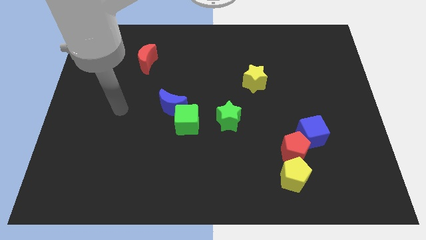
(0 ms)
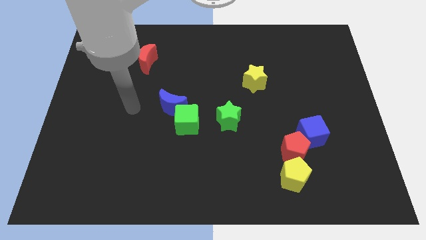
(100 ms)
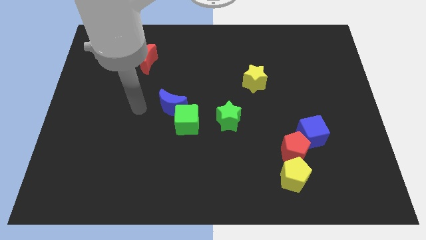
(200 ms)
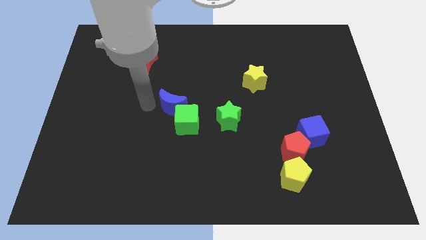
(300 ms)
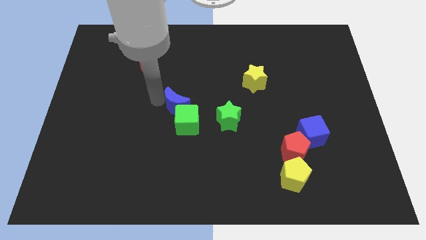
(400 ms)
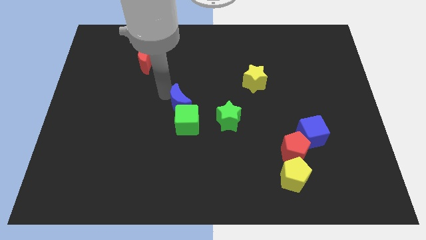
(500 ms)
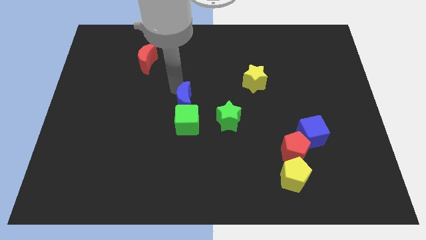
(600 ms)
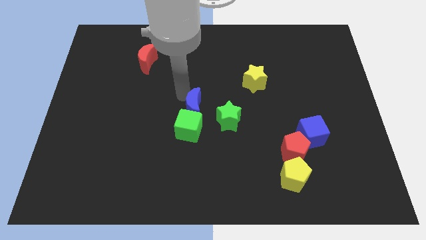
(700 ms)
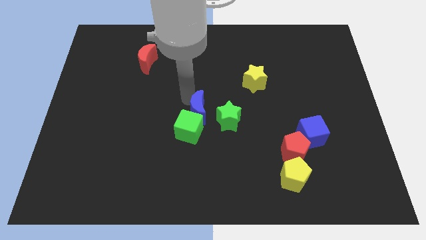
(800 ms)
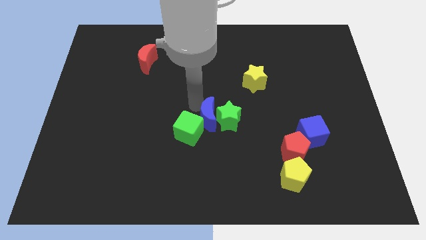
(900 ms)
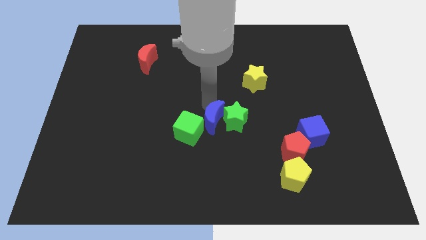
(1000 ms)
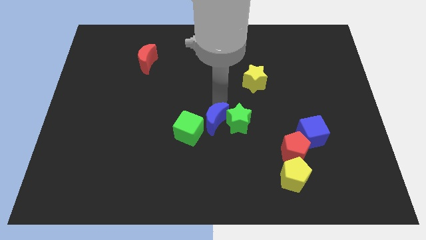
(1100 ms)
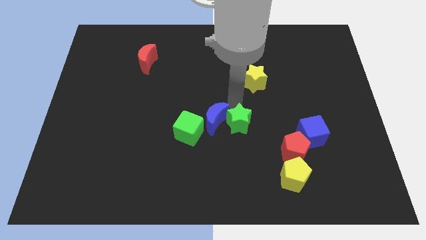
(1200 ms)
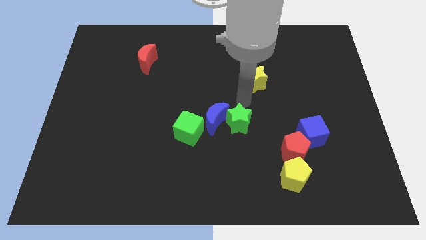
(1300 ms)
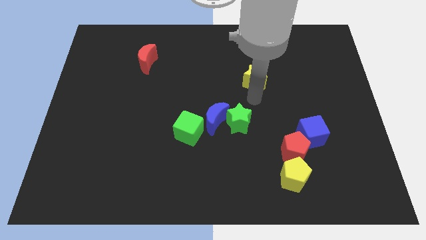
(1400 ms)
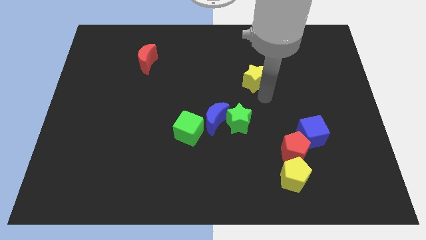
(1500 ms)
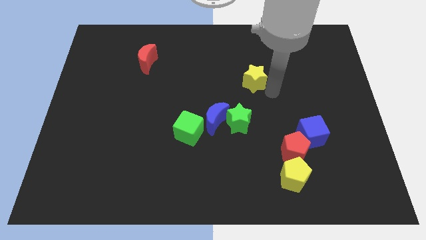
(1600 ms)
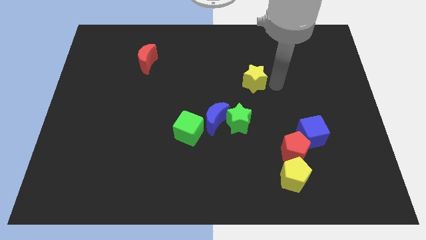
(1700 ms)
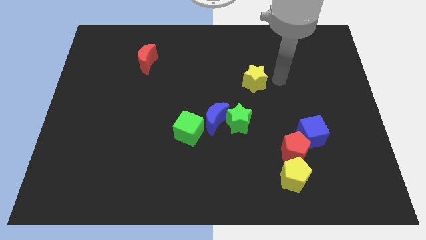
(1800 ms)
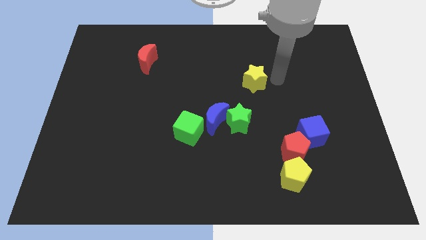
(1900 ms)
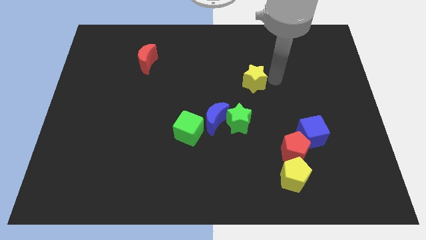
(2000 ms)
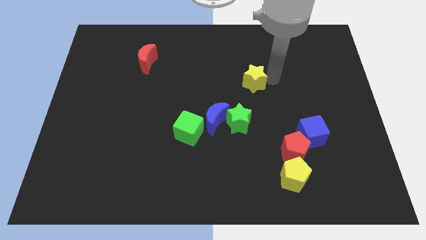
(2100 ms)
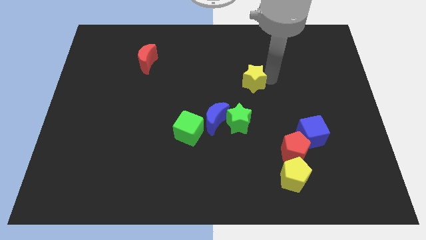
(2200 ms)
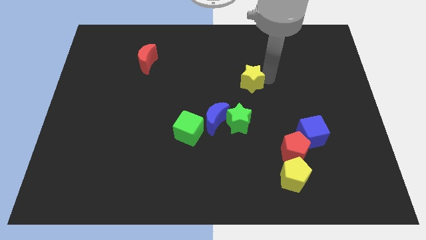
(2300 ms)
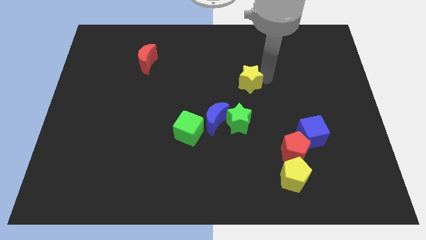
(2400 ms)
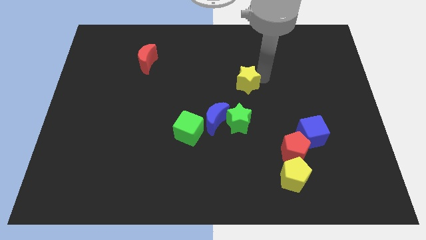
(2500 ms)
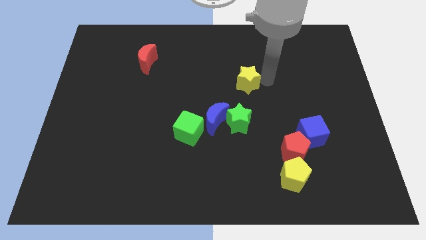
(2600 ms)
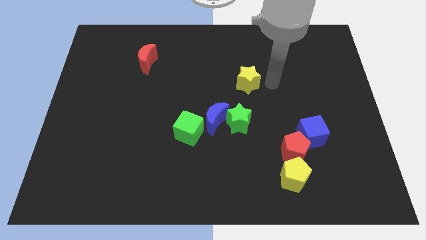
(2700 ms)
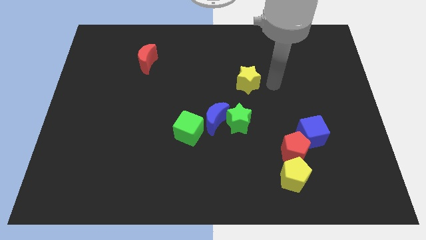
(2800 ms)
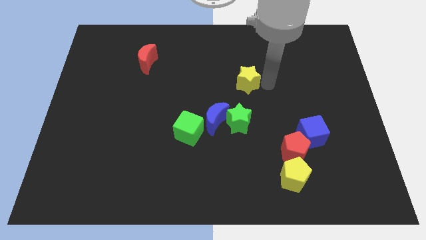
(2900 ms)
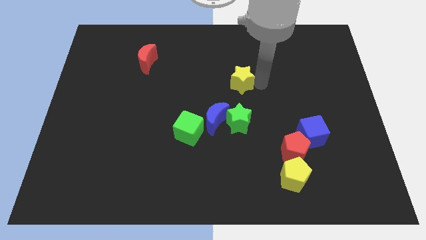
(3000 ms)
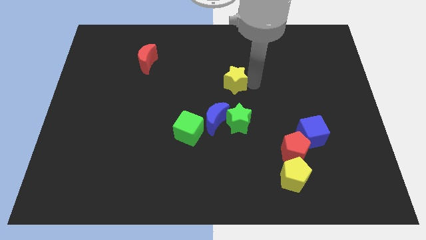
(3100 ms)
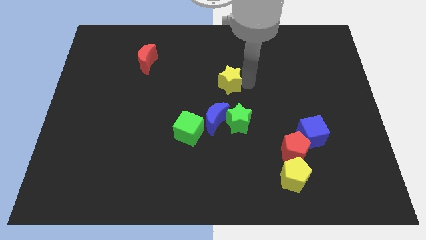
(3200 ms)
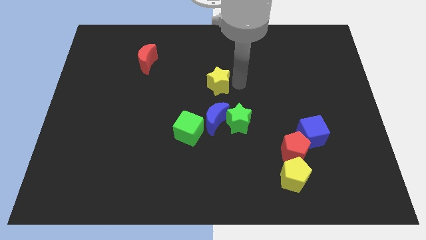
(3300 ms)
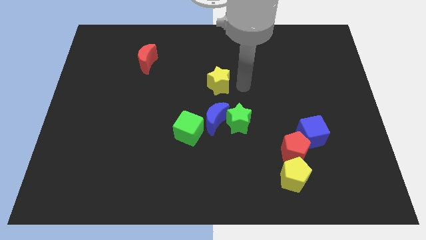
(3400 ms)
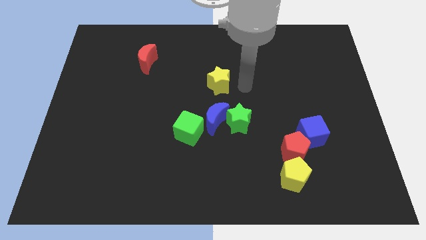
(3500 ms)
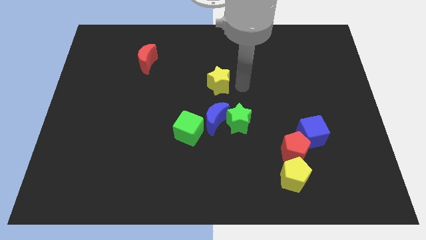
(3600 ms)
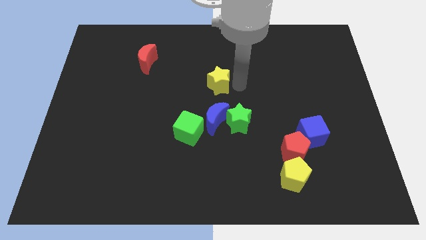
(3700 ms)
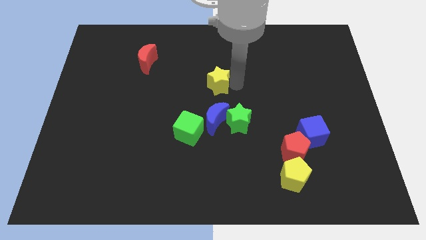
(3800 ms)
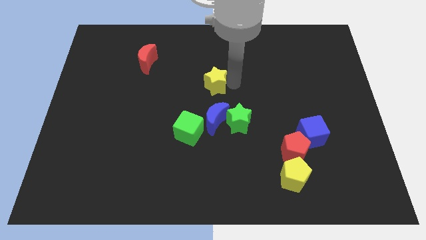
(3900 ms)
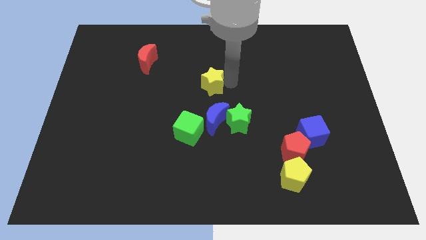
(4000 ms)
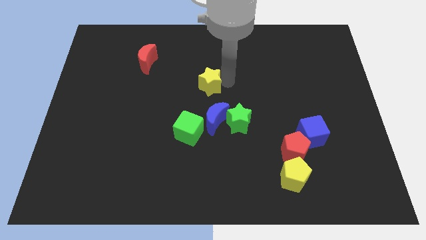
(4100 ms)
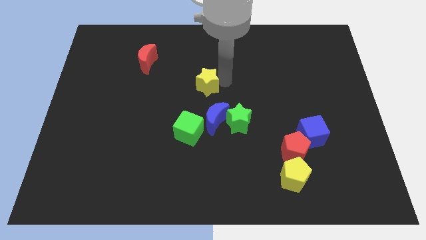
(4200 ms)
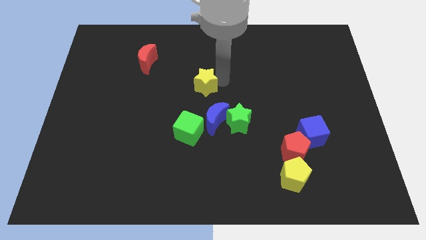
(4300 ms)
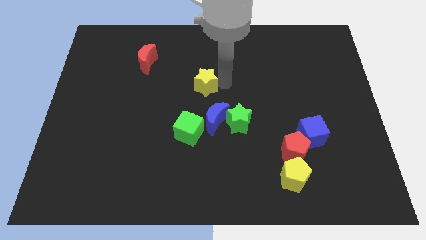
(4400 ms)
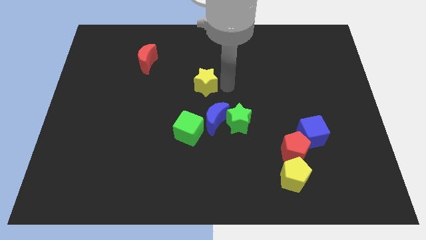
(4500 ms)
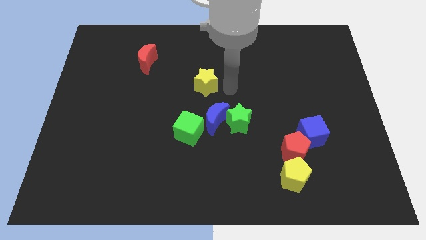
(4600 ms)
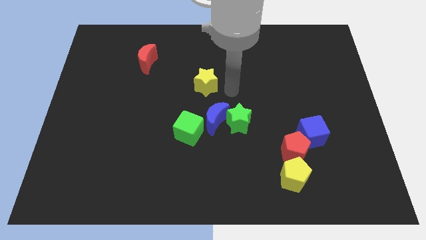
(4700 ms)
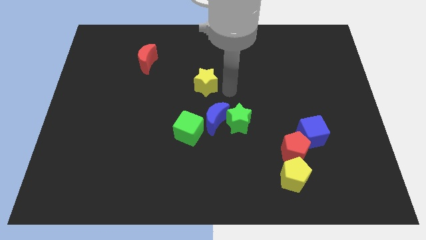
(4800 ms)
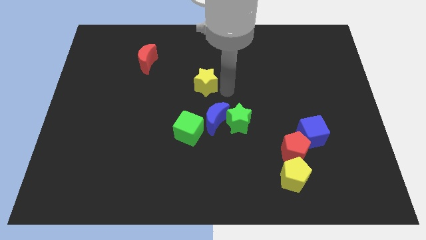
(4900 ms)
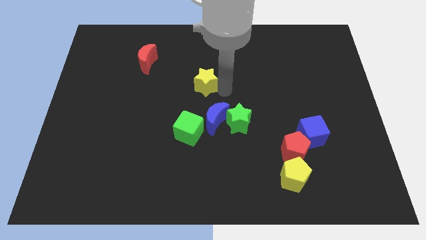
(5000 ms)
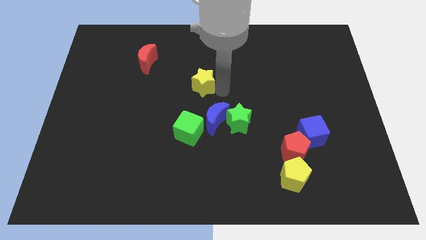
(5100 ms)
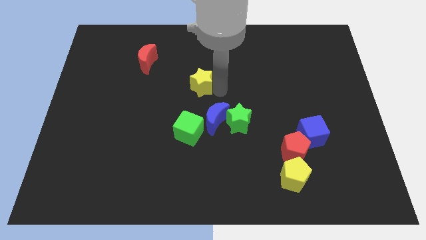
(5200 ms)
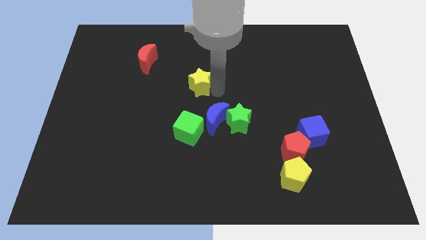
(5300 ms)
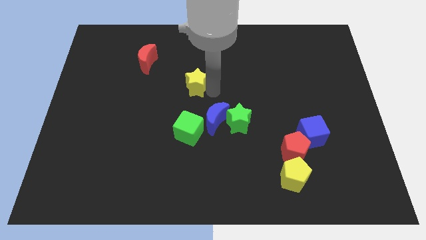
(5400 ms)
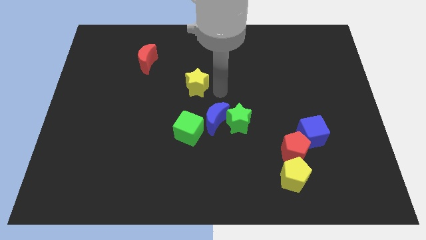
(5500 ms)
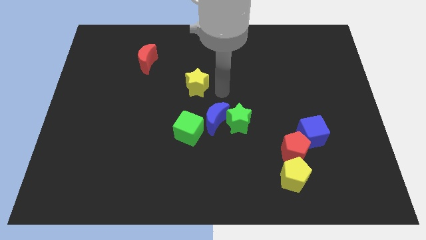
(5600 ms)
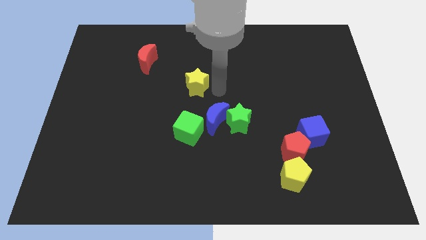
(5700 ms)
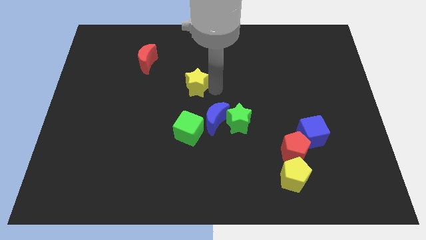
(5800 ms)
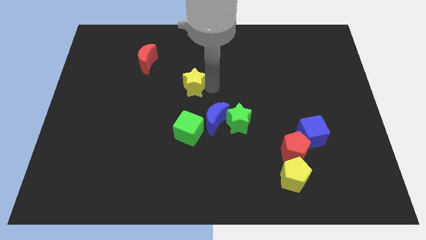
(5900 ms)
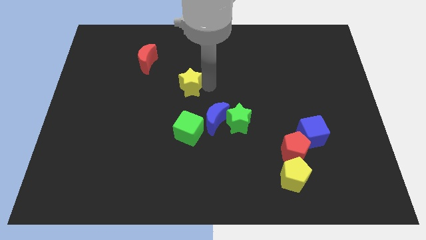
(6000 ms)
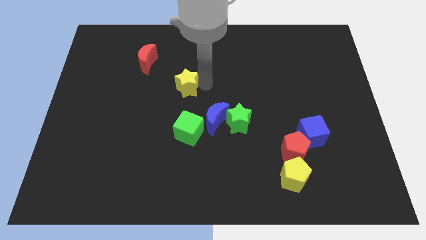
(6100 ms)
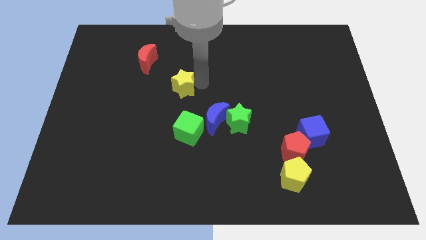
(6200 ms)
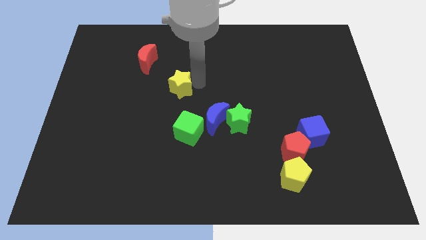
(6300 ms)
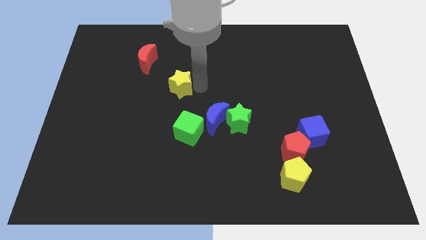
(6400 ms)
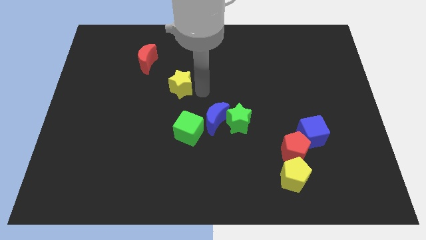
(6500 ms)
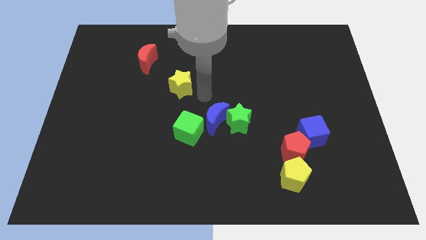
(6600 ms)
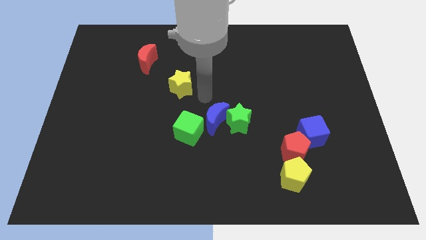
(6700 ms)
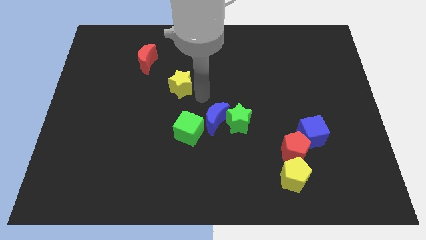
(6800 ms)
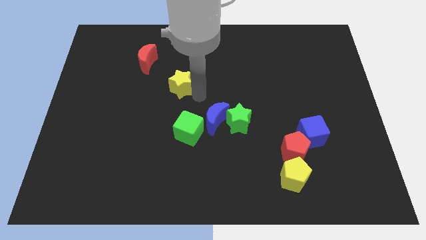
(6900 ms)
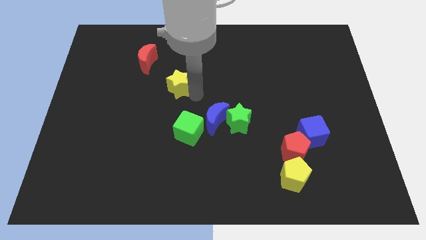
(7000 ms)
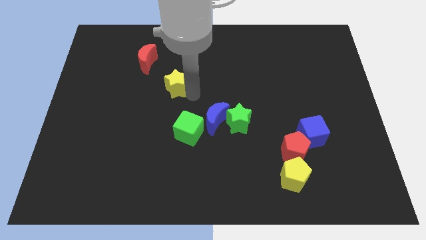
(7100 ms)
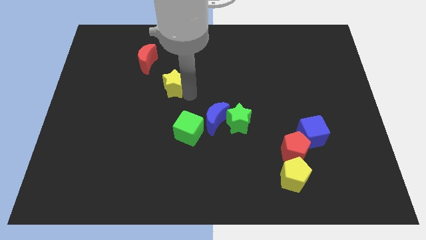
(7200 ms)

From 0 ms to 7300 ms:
slide the yellow star left

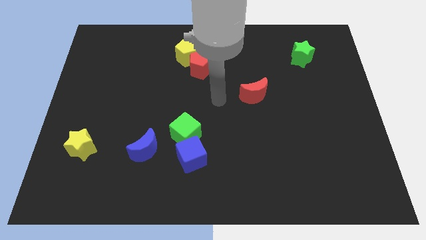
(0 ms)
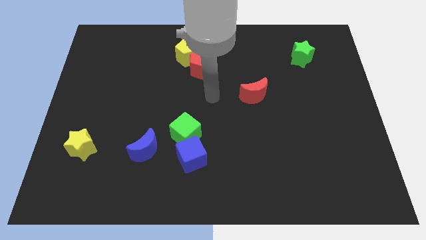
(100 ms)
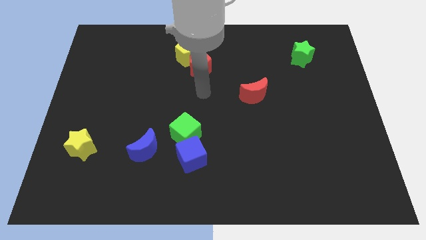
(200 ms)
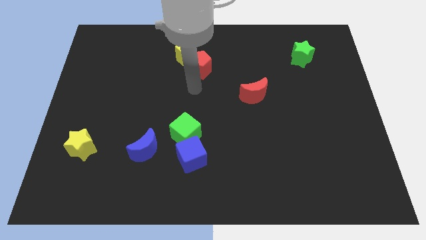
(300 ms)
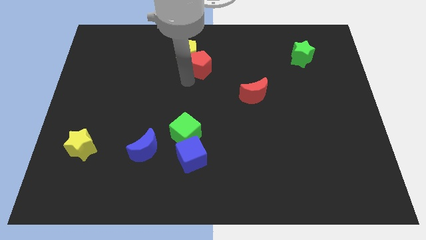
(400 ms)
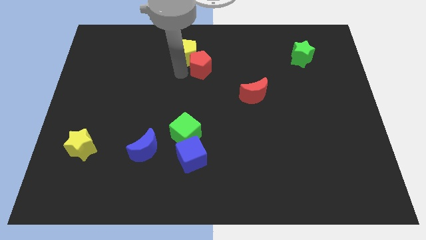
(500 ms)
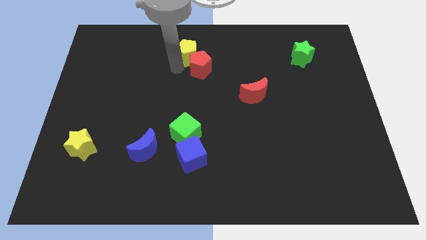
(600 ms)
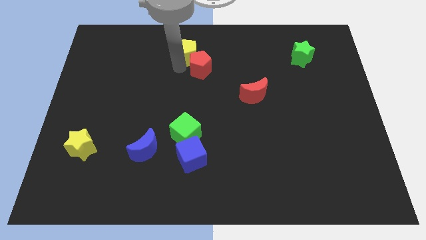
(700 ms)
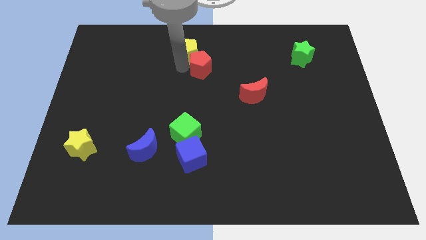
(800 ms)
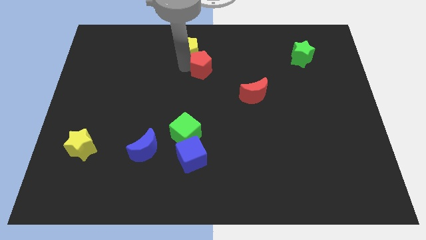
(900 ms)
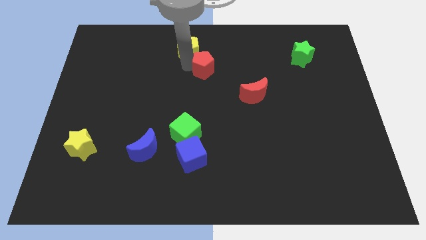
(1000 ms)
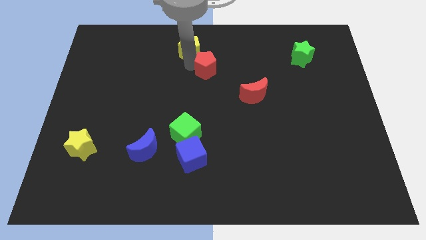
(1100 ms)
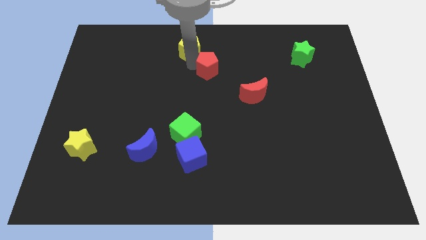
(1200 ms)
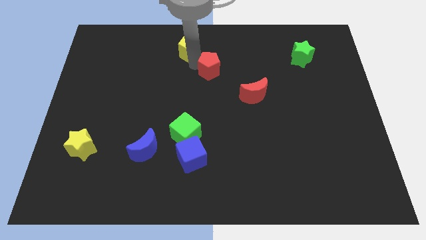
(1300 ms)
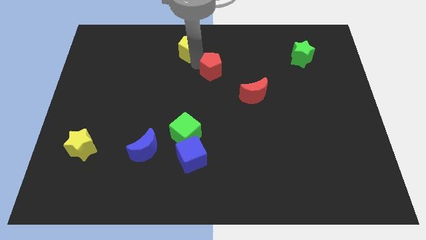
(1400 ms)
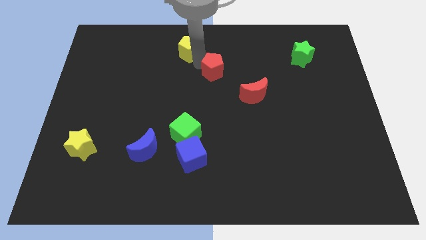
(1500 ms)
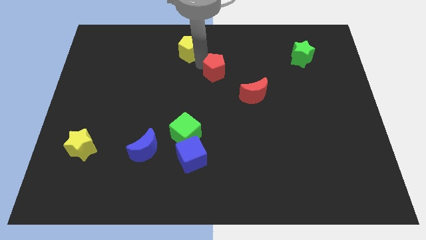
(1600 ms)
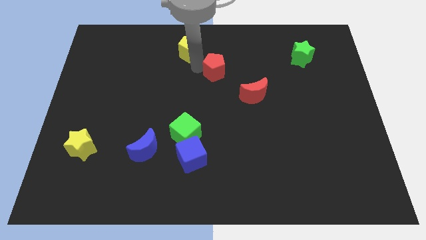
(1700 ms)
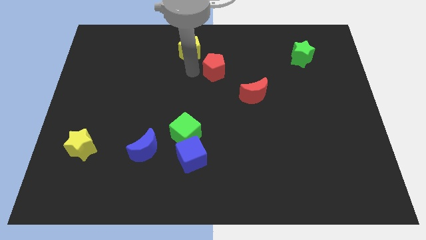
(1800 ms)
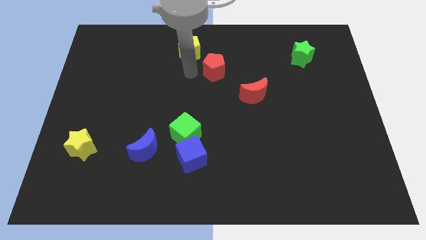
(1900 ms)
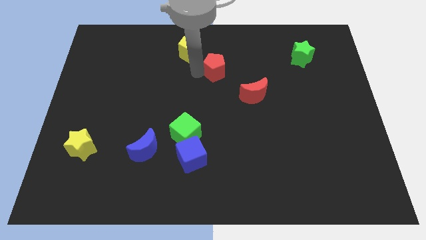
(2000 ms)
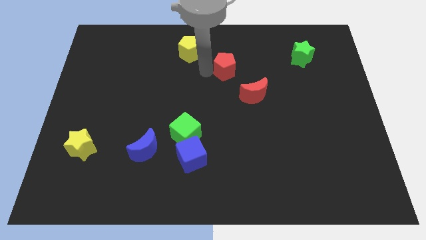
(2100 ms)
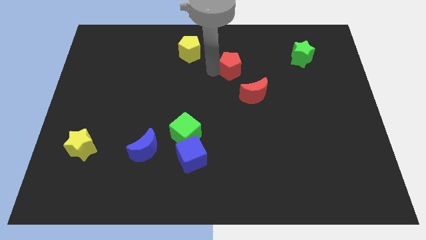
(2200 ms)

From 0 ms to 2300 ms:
push the red pentagon a little right
